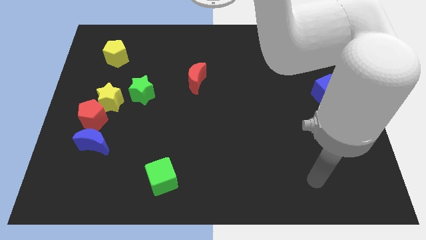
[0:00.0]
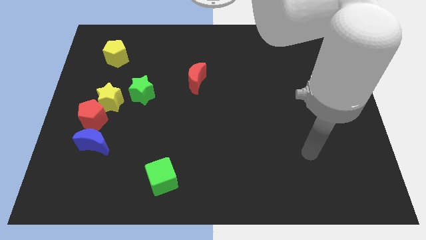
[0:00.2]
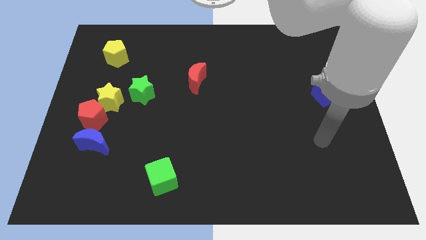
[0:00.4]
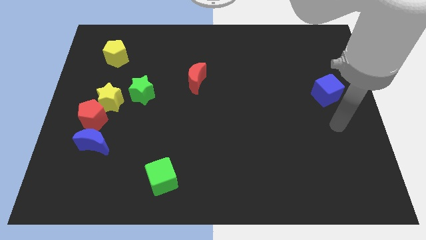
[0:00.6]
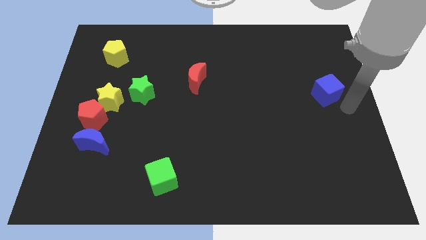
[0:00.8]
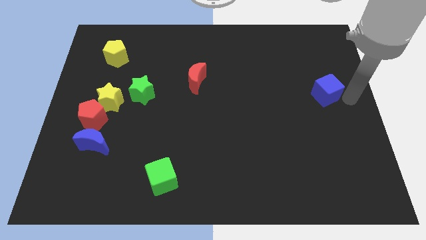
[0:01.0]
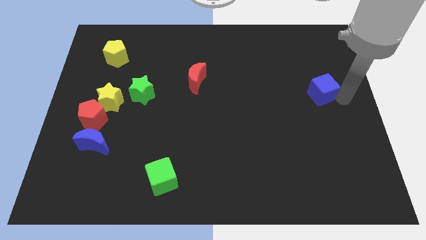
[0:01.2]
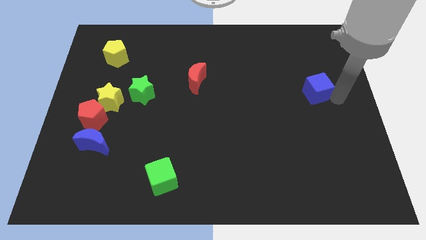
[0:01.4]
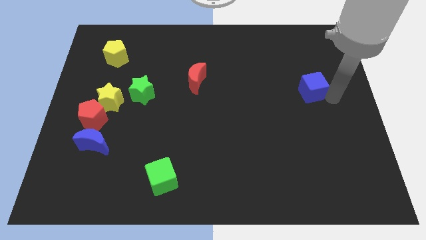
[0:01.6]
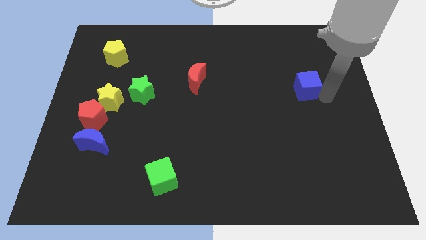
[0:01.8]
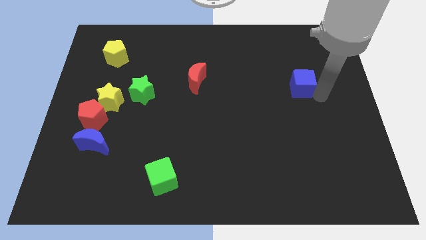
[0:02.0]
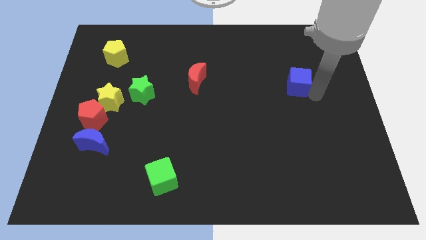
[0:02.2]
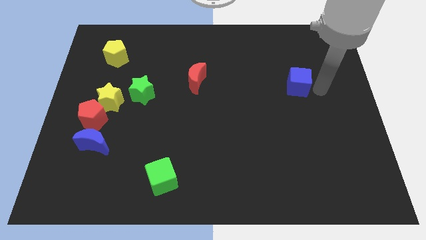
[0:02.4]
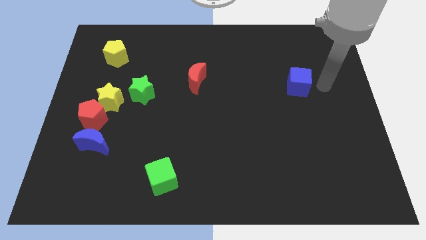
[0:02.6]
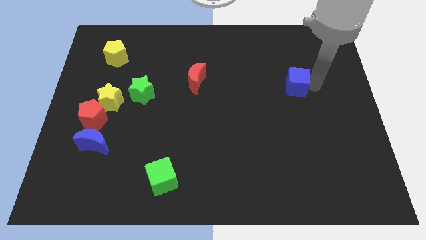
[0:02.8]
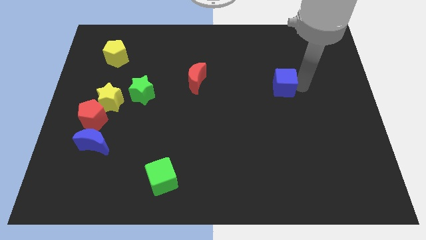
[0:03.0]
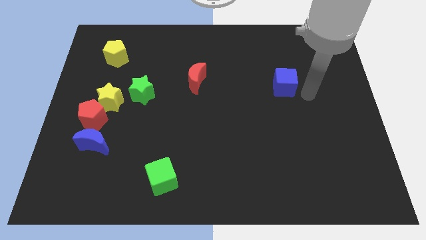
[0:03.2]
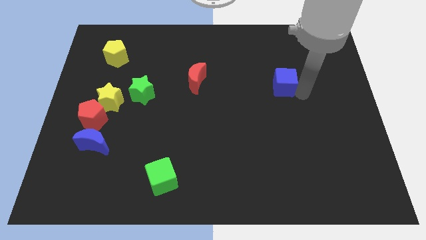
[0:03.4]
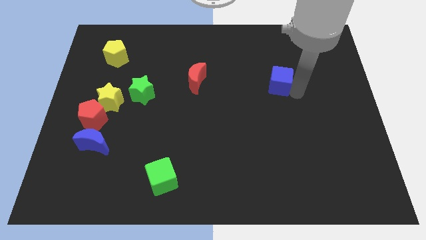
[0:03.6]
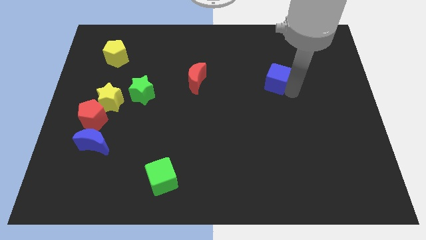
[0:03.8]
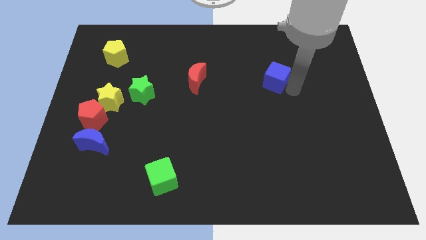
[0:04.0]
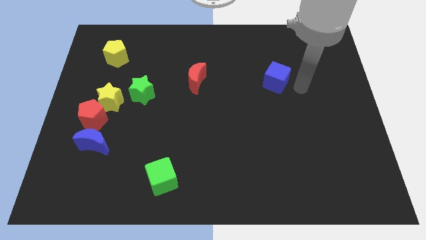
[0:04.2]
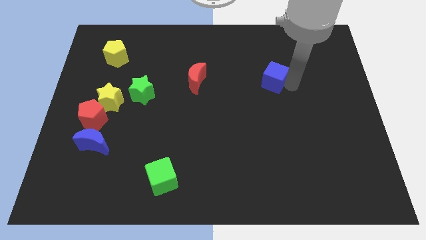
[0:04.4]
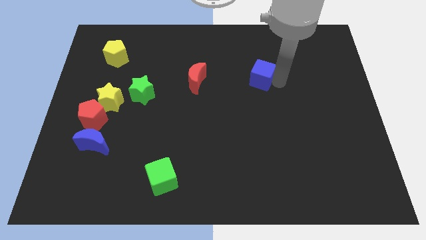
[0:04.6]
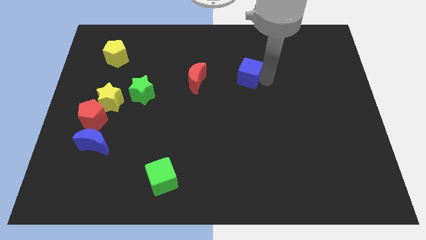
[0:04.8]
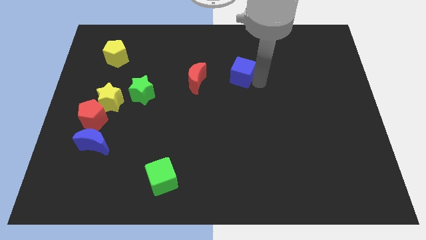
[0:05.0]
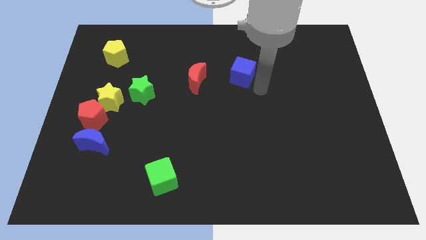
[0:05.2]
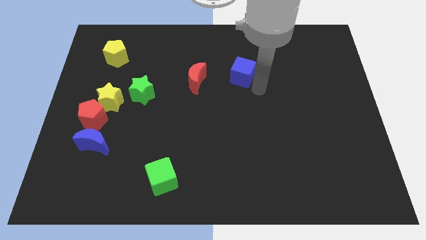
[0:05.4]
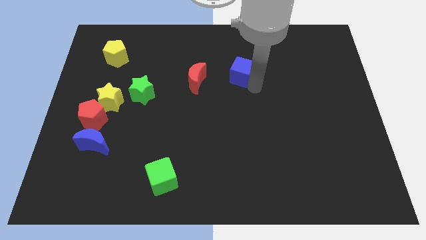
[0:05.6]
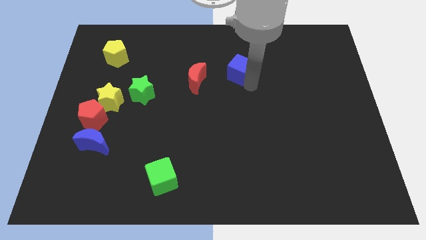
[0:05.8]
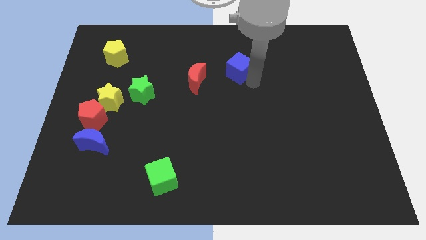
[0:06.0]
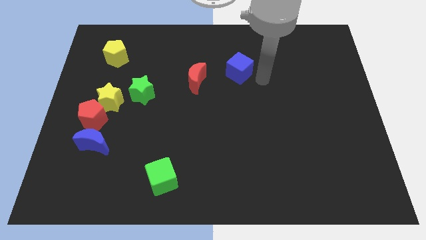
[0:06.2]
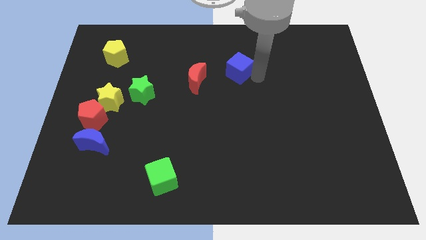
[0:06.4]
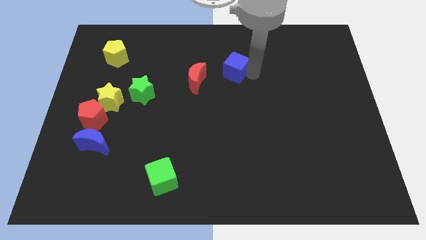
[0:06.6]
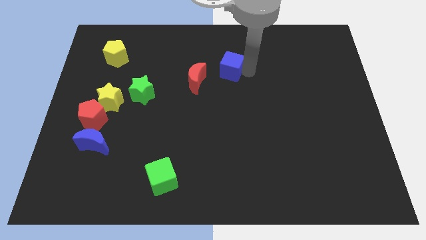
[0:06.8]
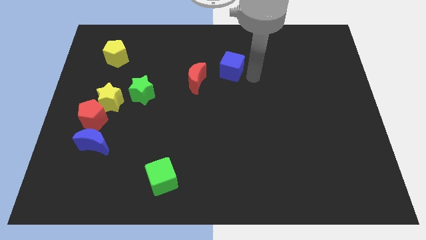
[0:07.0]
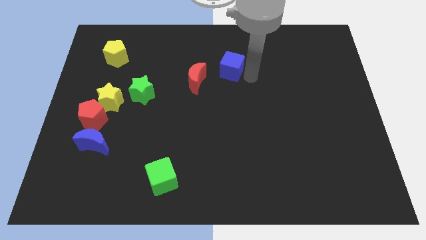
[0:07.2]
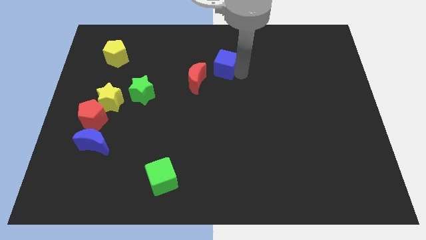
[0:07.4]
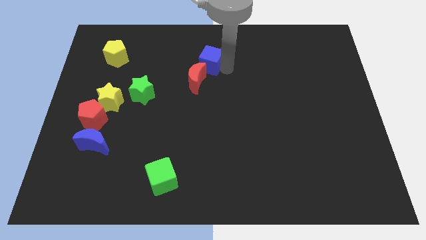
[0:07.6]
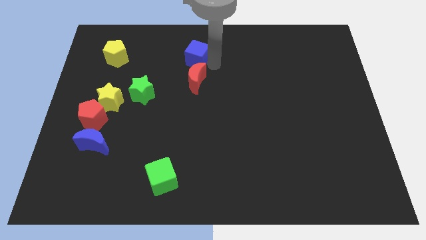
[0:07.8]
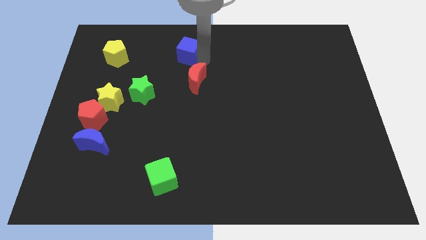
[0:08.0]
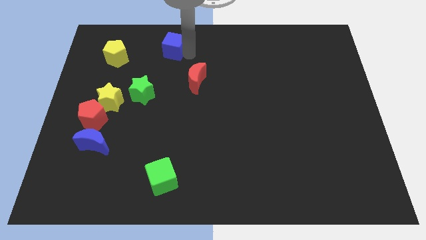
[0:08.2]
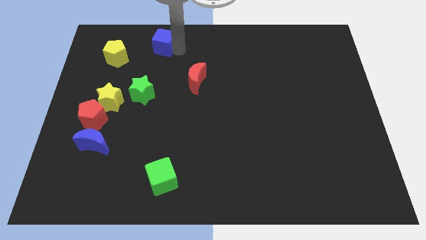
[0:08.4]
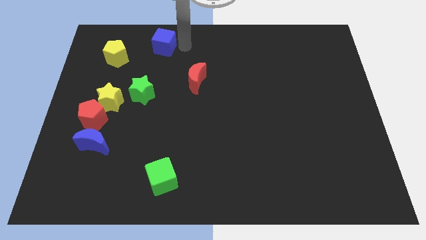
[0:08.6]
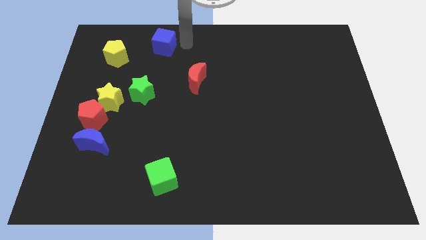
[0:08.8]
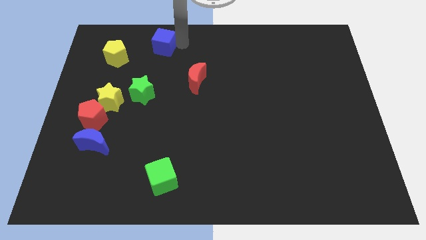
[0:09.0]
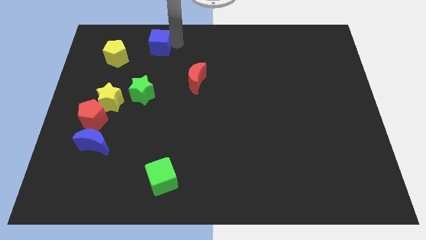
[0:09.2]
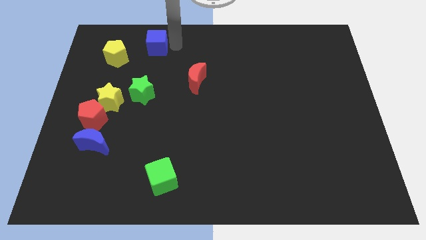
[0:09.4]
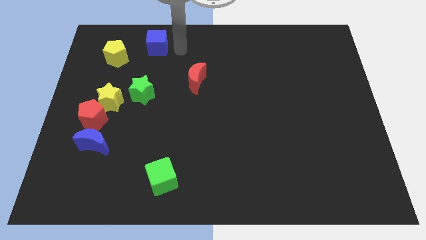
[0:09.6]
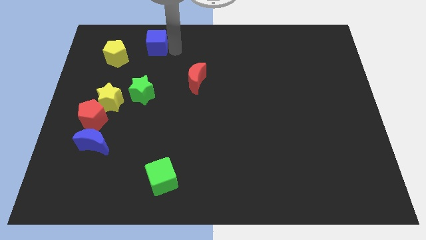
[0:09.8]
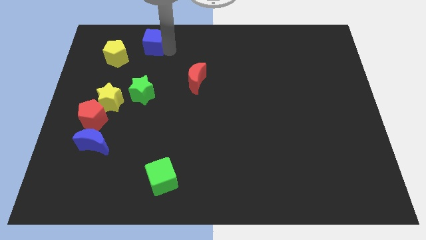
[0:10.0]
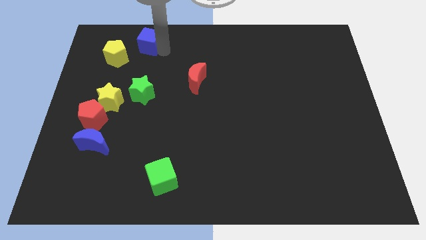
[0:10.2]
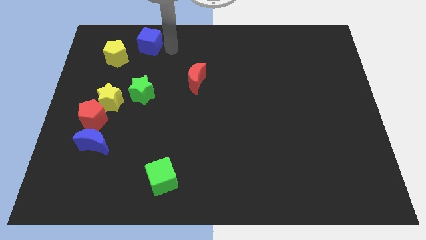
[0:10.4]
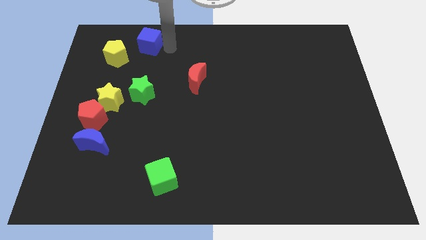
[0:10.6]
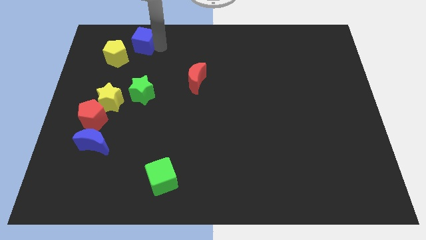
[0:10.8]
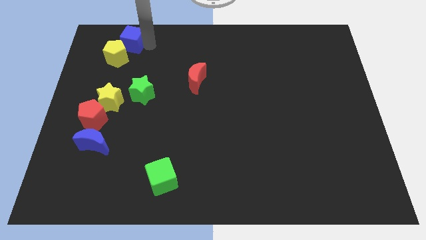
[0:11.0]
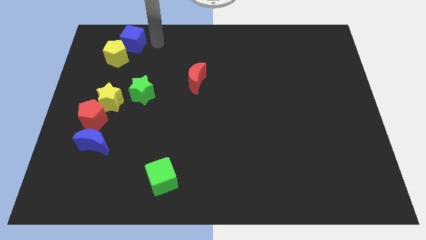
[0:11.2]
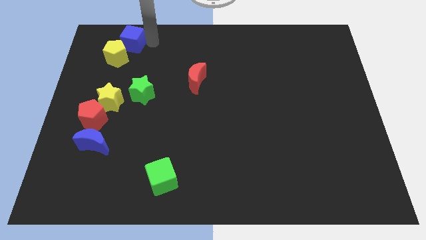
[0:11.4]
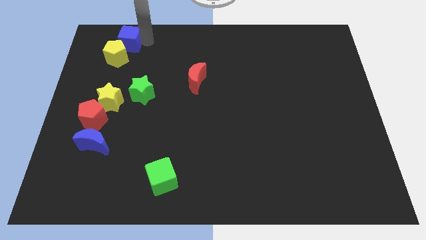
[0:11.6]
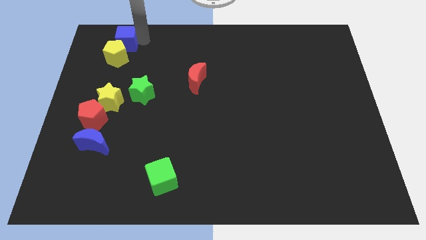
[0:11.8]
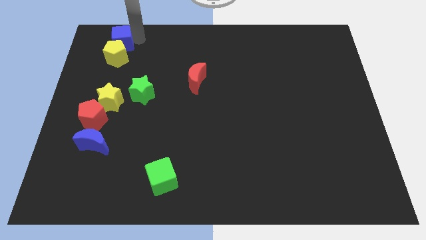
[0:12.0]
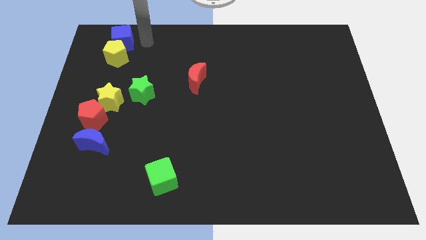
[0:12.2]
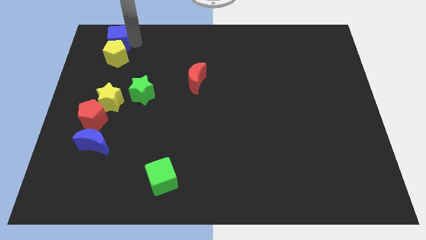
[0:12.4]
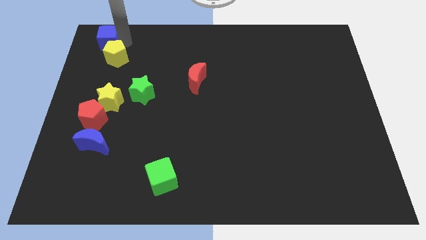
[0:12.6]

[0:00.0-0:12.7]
slide the blue cube to the top left

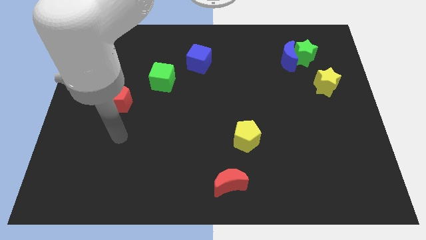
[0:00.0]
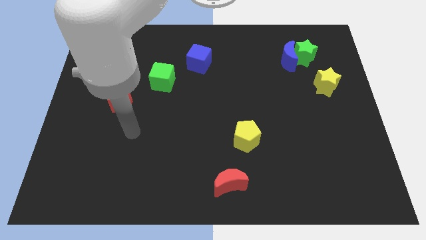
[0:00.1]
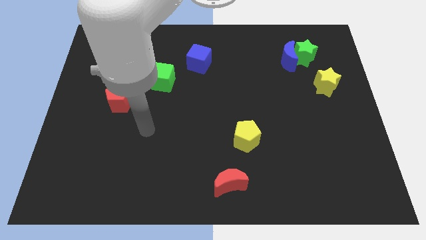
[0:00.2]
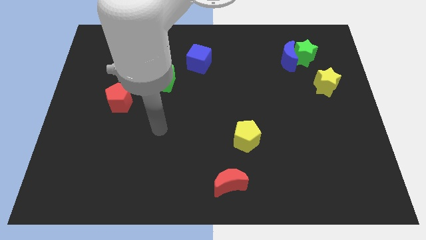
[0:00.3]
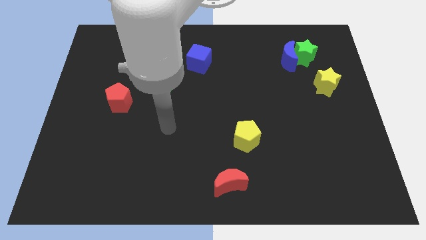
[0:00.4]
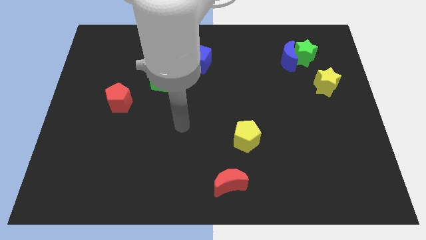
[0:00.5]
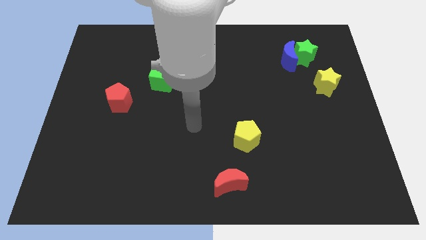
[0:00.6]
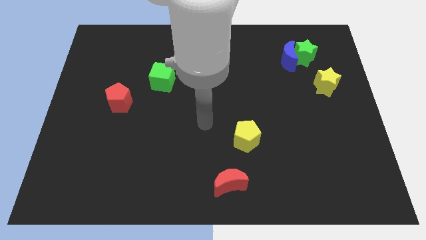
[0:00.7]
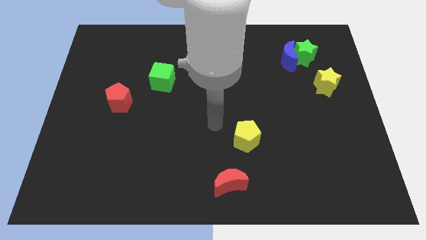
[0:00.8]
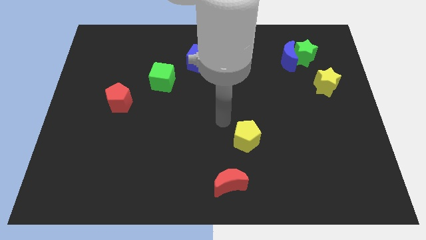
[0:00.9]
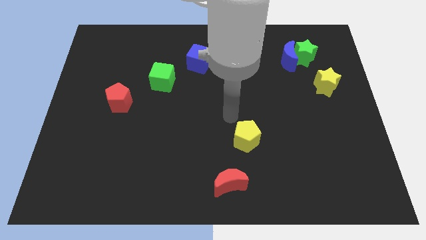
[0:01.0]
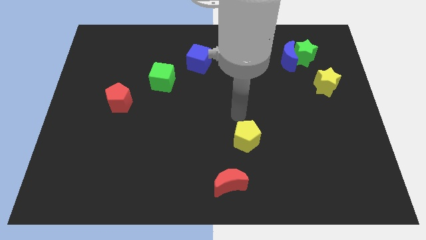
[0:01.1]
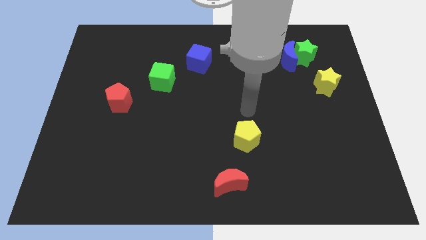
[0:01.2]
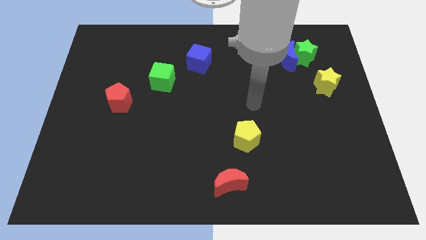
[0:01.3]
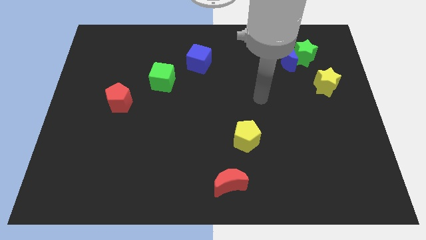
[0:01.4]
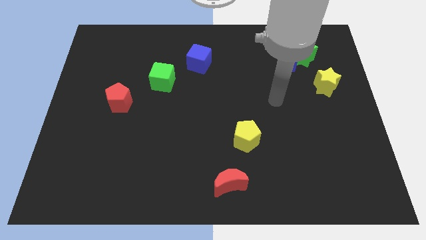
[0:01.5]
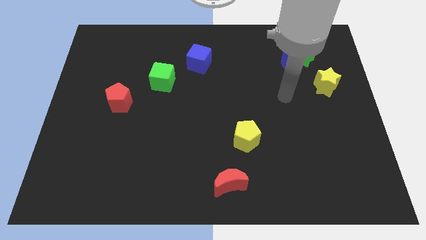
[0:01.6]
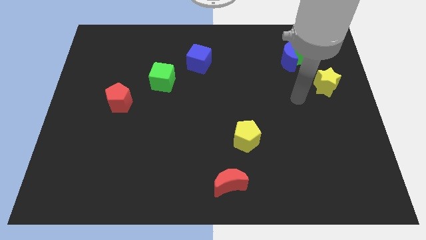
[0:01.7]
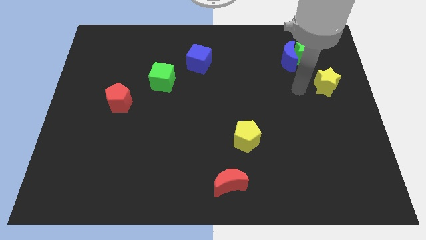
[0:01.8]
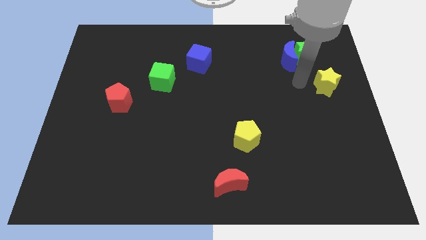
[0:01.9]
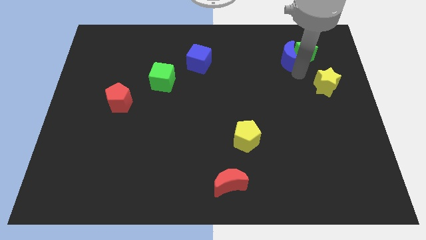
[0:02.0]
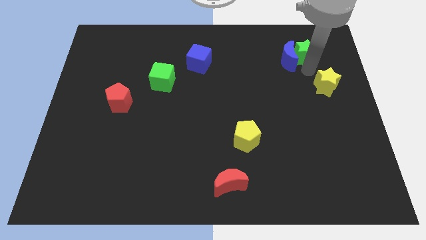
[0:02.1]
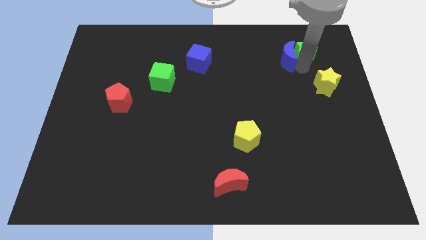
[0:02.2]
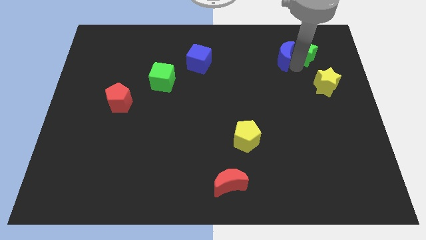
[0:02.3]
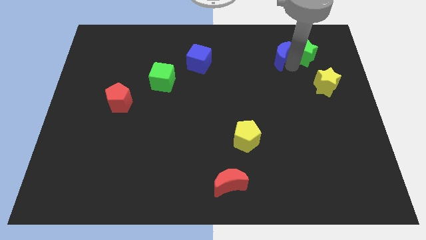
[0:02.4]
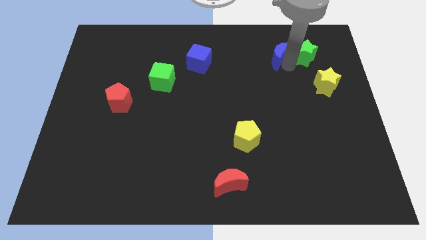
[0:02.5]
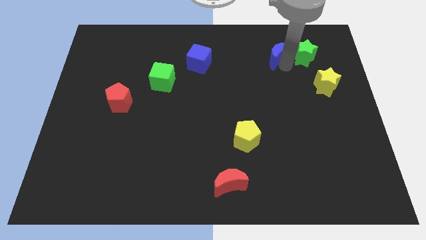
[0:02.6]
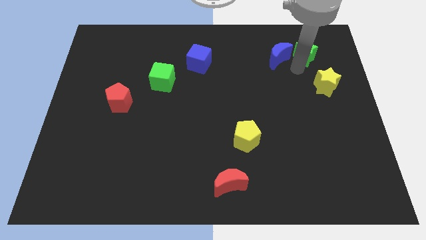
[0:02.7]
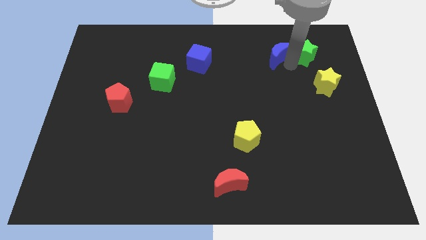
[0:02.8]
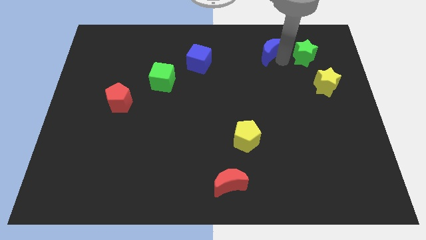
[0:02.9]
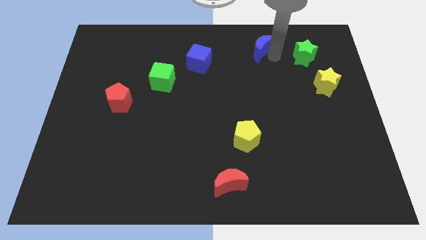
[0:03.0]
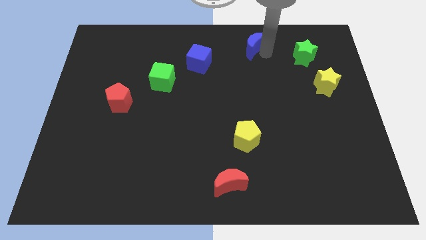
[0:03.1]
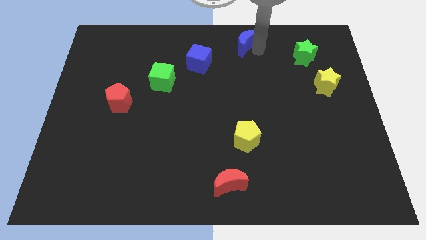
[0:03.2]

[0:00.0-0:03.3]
slide the blue moon to the top side
